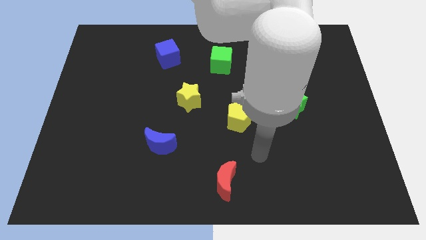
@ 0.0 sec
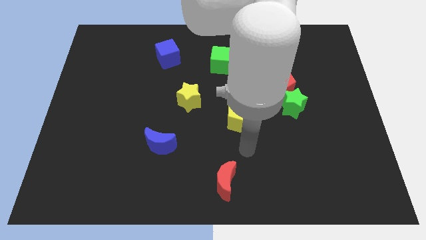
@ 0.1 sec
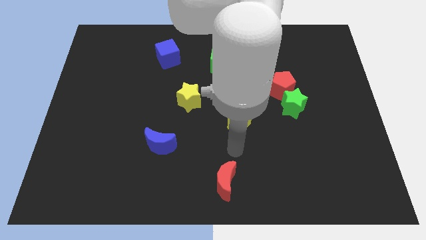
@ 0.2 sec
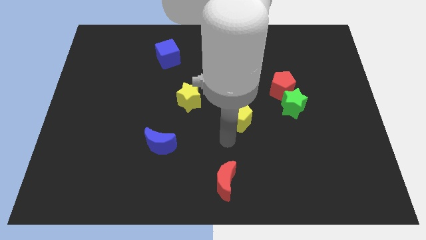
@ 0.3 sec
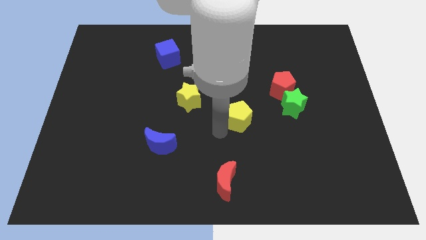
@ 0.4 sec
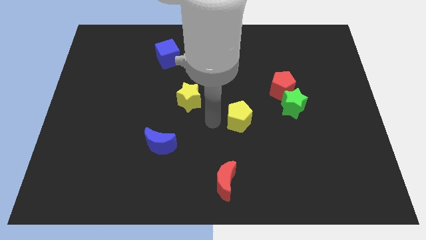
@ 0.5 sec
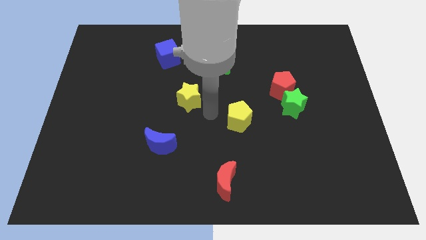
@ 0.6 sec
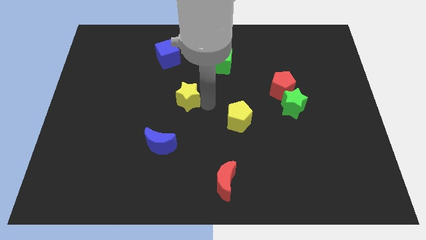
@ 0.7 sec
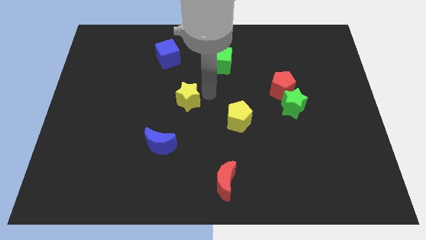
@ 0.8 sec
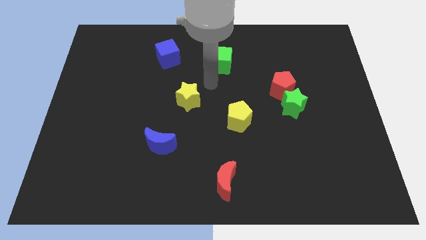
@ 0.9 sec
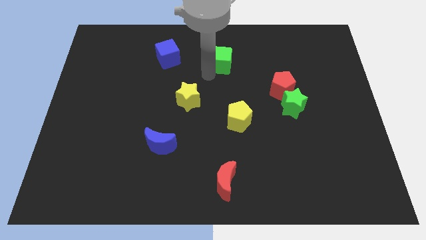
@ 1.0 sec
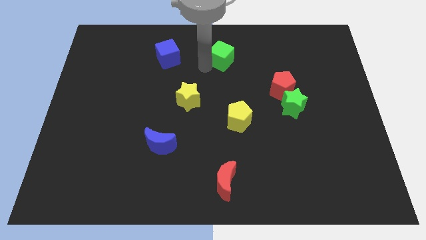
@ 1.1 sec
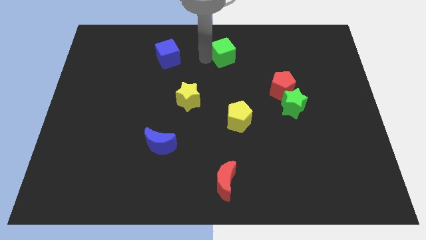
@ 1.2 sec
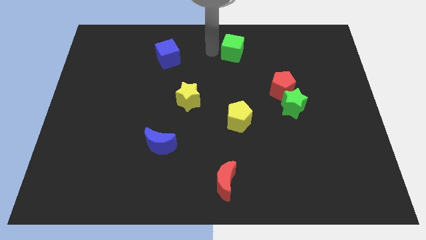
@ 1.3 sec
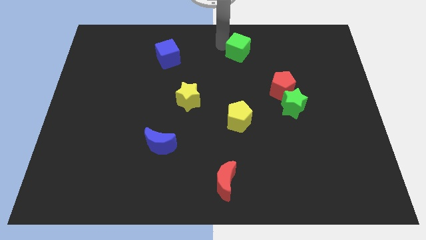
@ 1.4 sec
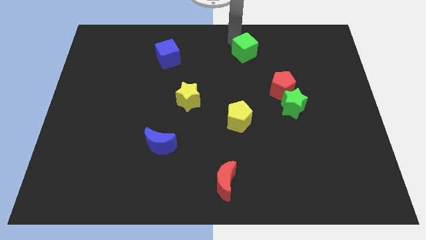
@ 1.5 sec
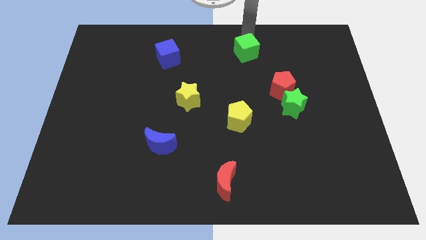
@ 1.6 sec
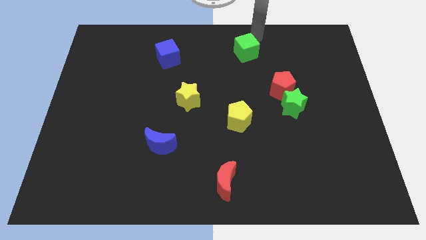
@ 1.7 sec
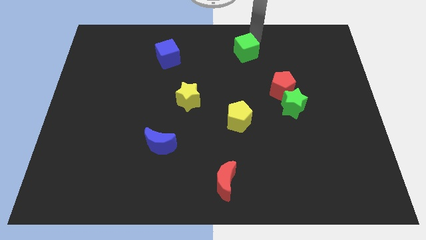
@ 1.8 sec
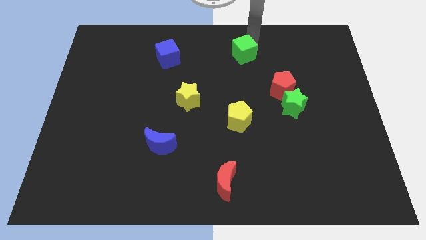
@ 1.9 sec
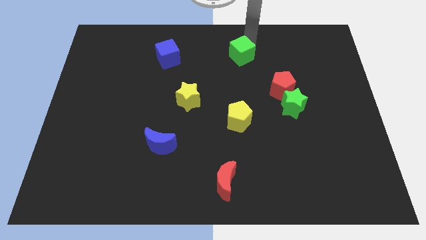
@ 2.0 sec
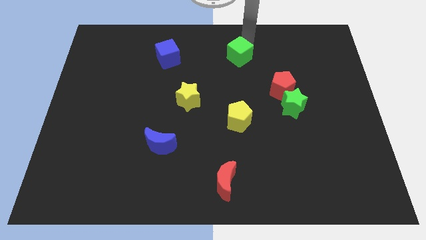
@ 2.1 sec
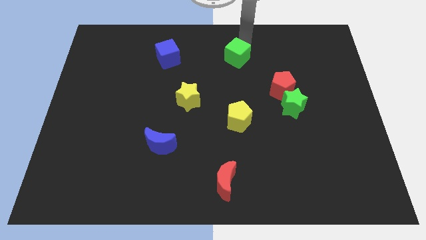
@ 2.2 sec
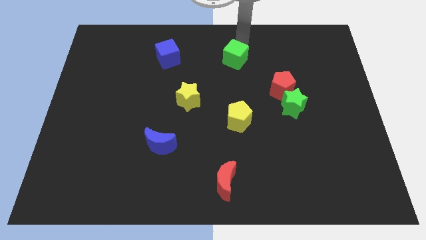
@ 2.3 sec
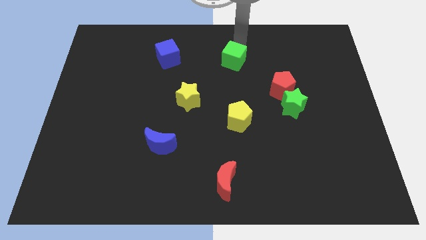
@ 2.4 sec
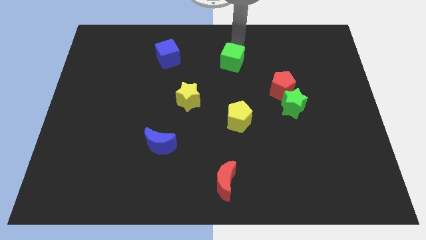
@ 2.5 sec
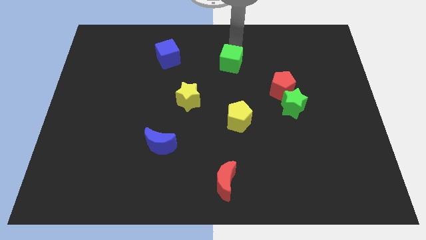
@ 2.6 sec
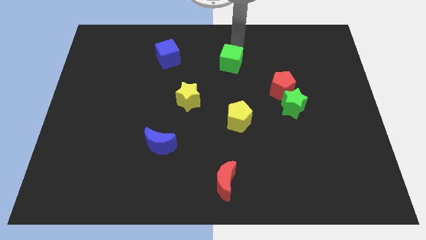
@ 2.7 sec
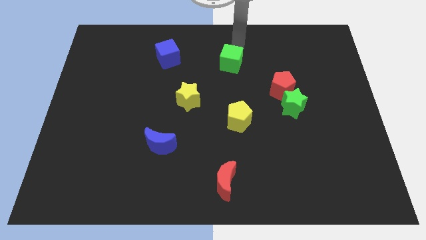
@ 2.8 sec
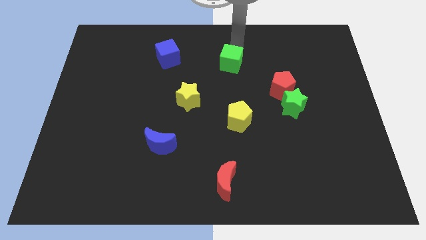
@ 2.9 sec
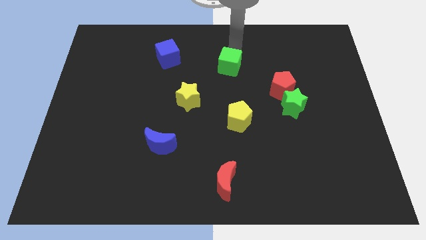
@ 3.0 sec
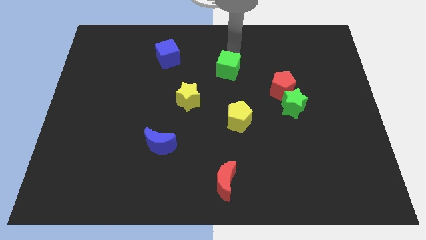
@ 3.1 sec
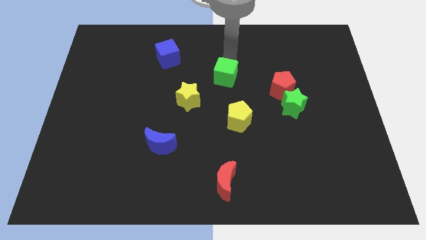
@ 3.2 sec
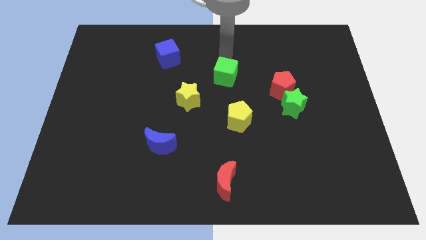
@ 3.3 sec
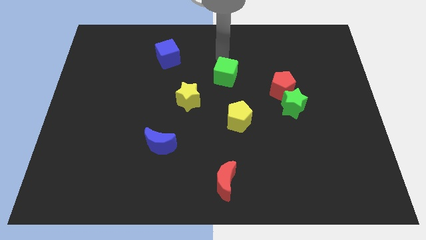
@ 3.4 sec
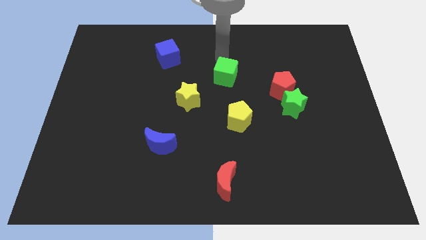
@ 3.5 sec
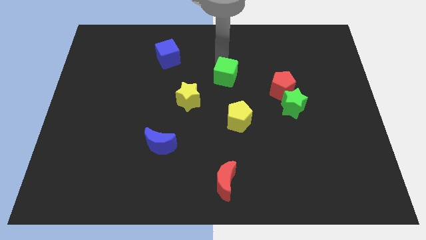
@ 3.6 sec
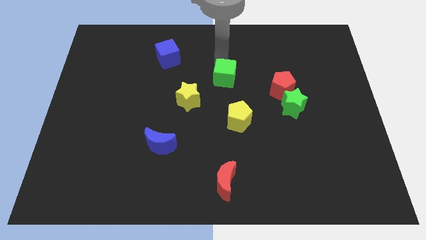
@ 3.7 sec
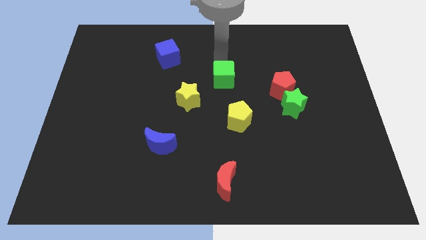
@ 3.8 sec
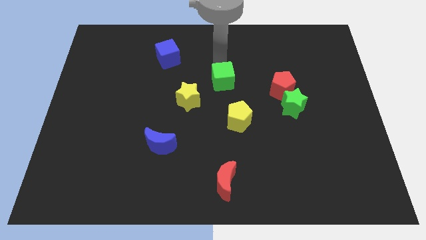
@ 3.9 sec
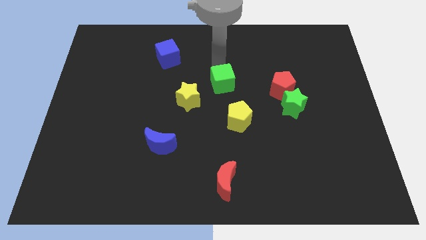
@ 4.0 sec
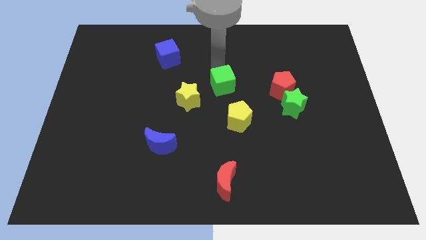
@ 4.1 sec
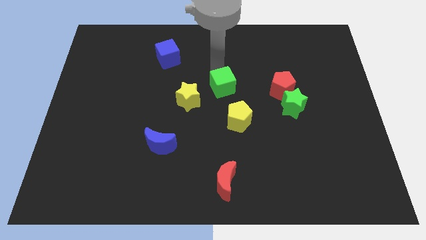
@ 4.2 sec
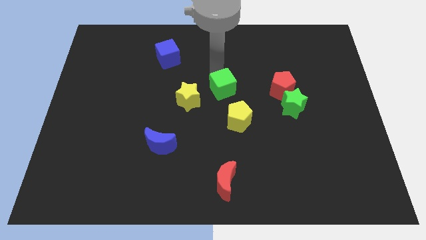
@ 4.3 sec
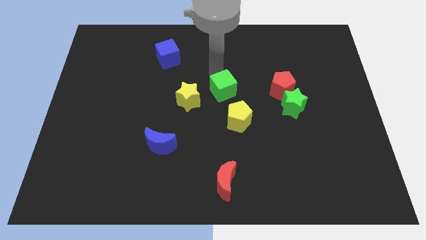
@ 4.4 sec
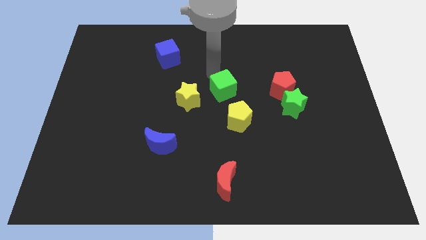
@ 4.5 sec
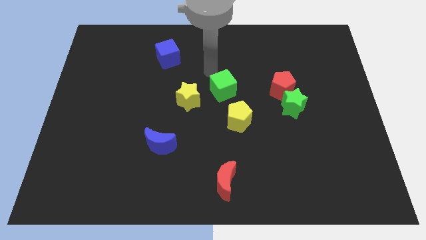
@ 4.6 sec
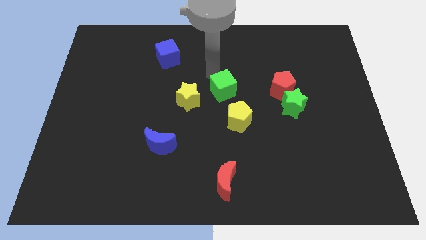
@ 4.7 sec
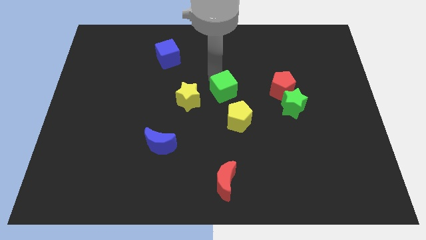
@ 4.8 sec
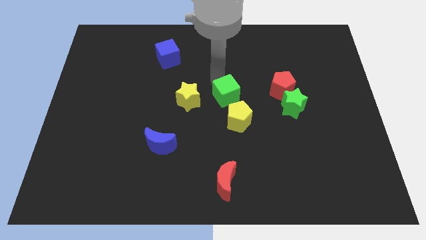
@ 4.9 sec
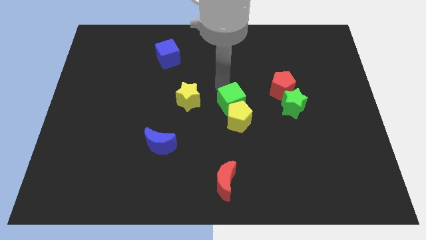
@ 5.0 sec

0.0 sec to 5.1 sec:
slide the green cube close to the yellow pentagon

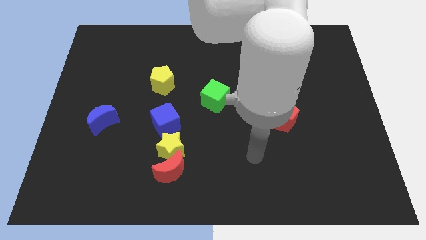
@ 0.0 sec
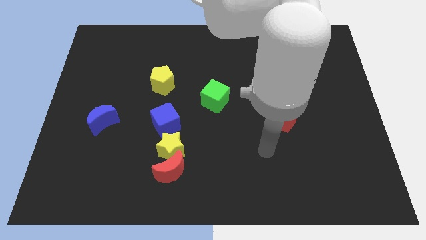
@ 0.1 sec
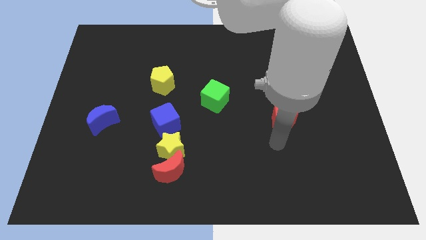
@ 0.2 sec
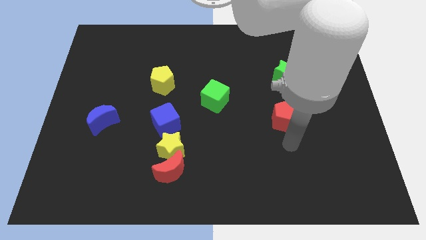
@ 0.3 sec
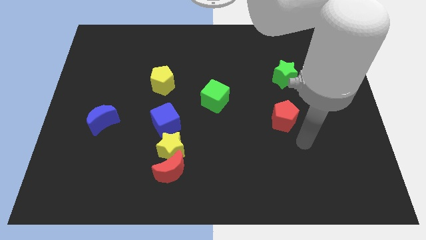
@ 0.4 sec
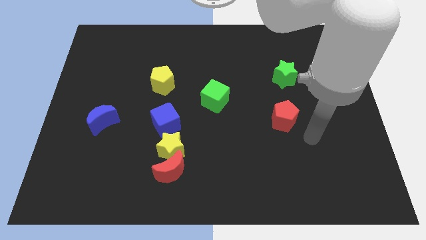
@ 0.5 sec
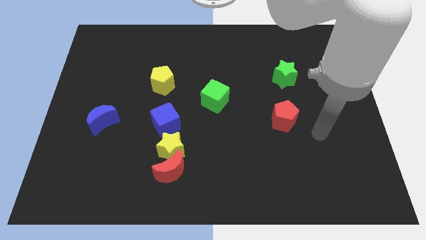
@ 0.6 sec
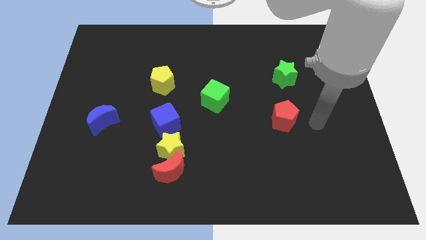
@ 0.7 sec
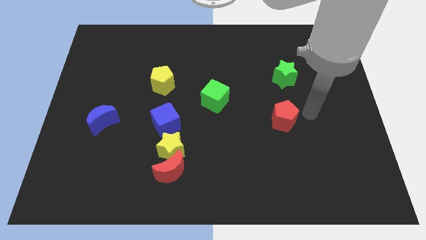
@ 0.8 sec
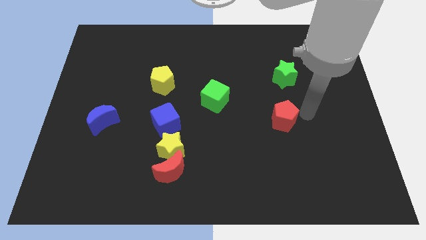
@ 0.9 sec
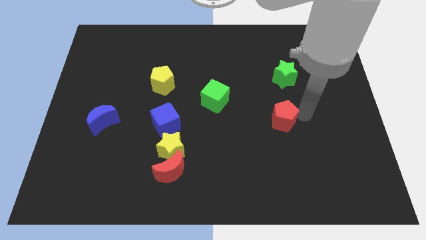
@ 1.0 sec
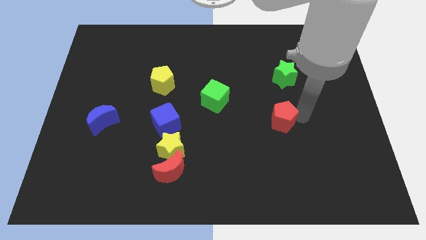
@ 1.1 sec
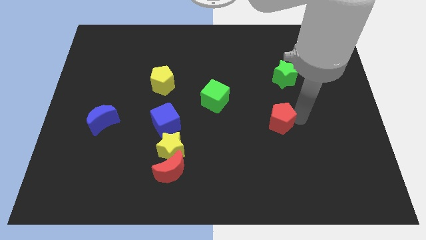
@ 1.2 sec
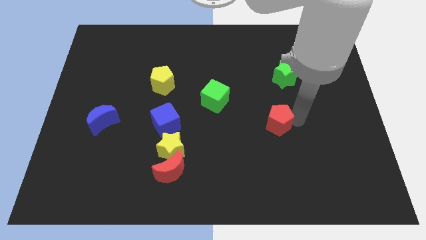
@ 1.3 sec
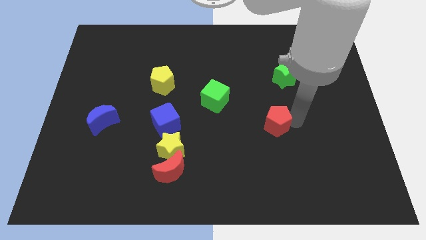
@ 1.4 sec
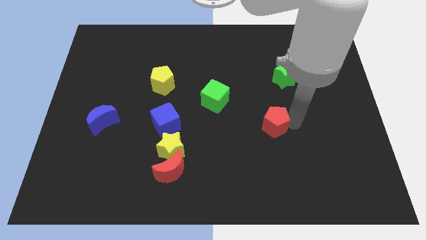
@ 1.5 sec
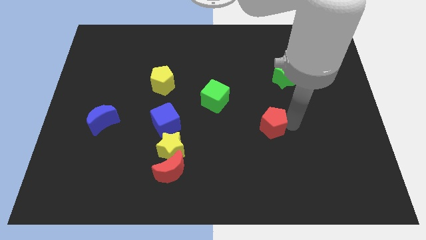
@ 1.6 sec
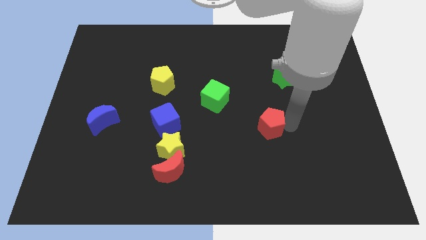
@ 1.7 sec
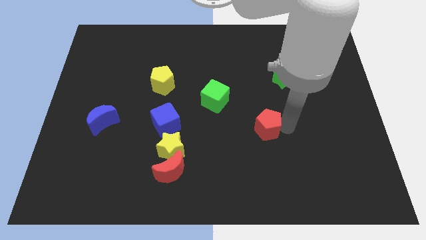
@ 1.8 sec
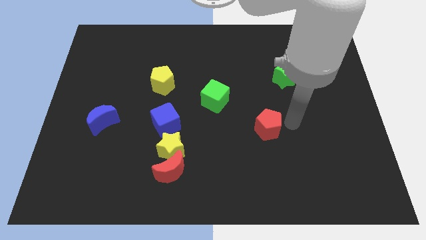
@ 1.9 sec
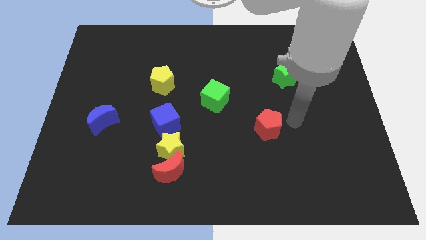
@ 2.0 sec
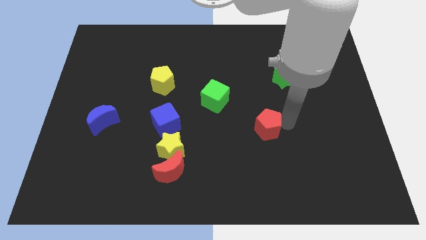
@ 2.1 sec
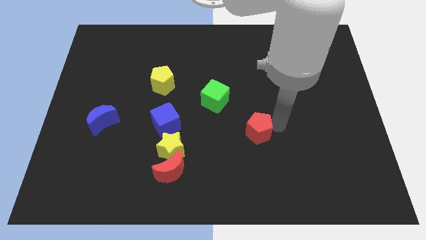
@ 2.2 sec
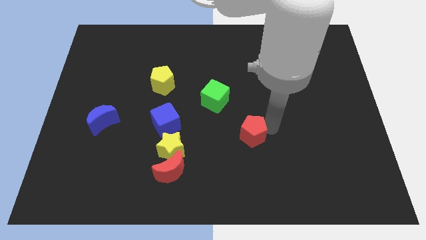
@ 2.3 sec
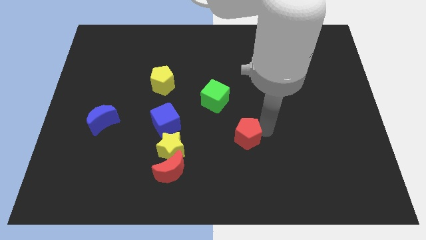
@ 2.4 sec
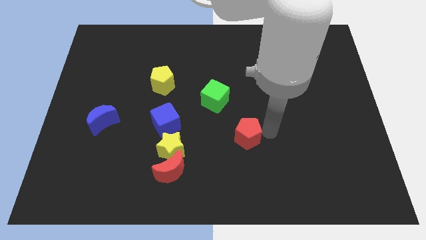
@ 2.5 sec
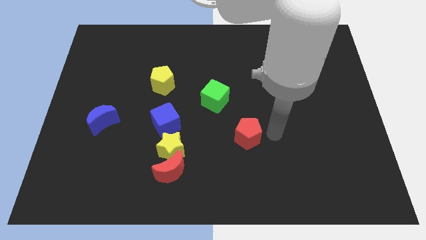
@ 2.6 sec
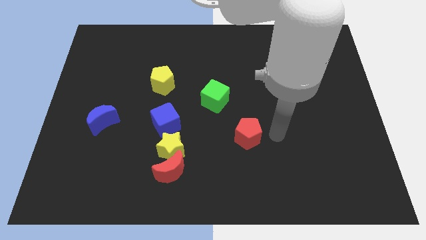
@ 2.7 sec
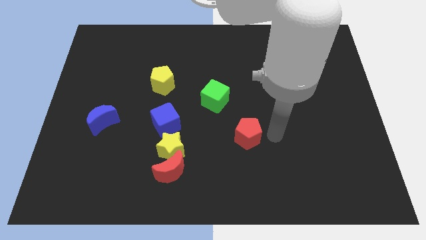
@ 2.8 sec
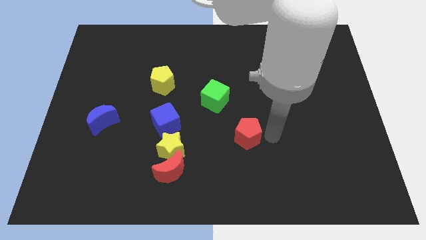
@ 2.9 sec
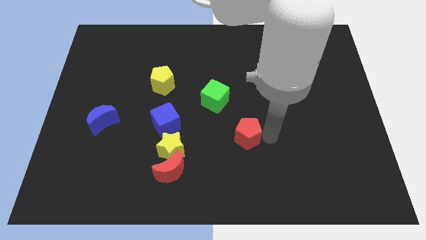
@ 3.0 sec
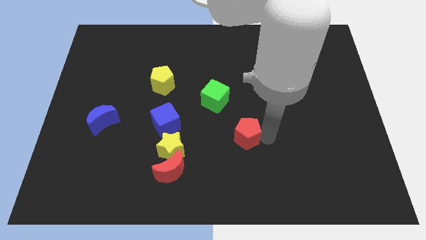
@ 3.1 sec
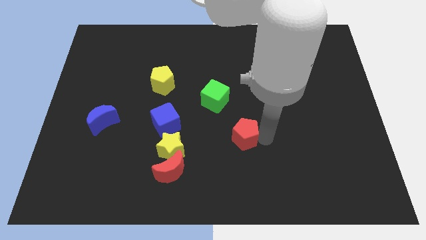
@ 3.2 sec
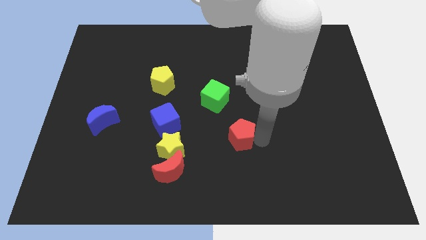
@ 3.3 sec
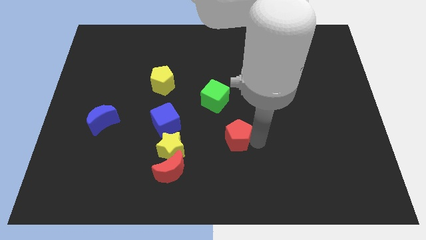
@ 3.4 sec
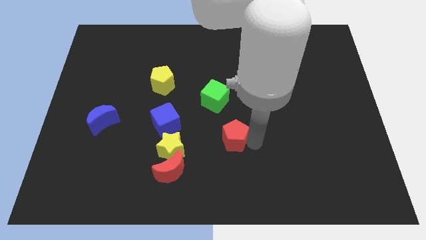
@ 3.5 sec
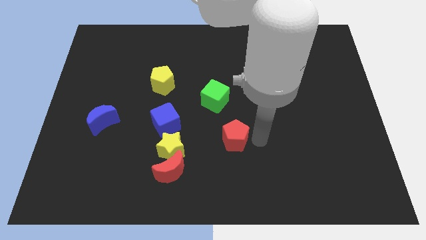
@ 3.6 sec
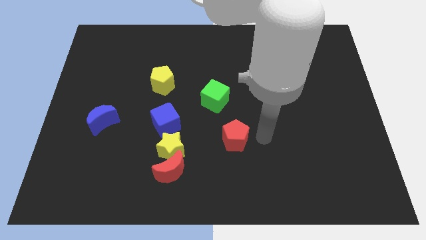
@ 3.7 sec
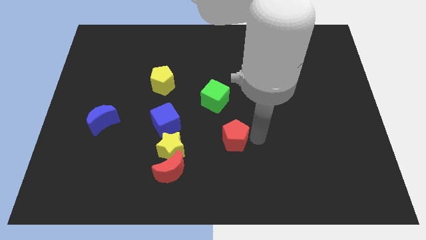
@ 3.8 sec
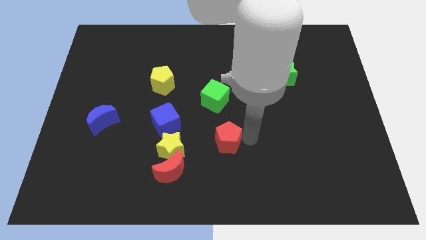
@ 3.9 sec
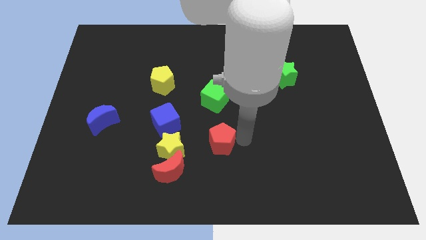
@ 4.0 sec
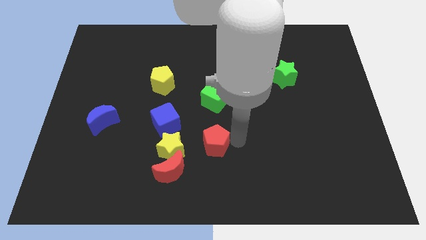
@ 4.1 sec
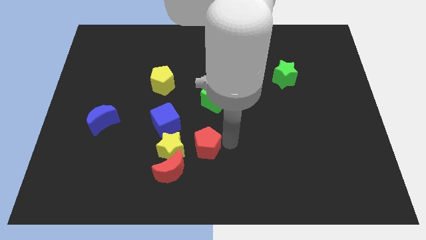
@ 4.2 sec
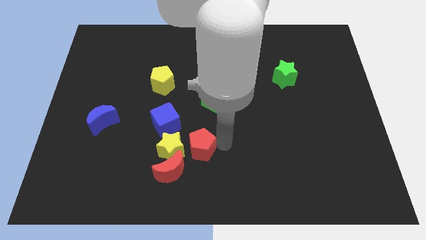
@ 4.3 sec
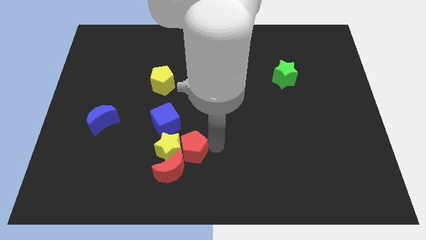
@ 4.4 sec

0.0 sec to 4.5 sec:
push the red pentagon to the yellow star
